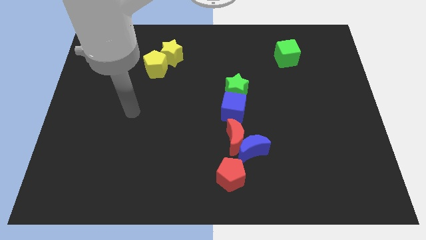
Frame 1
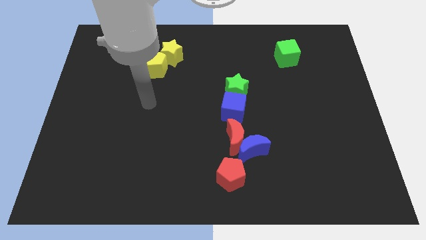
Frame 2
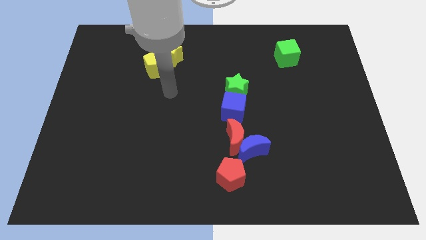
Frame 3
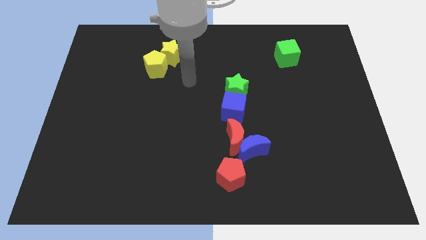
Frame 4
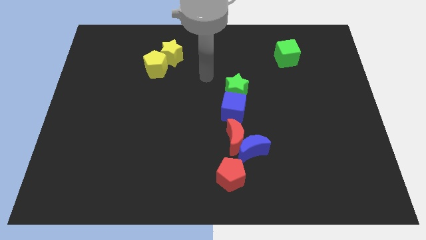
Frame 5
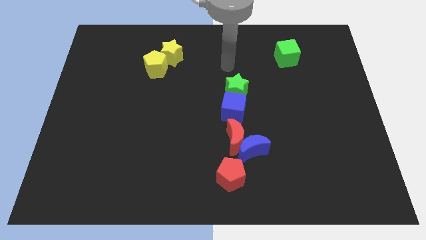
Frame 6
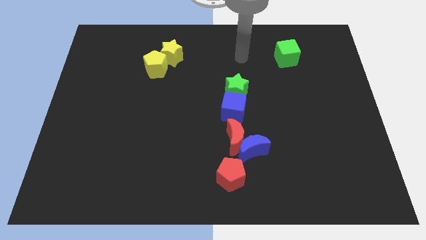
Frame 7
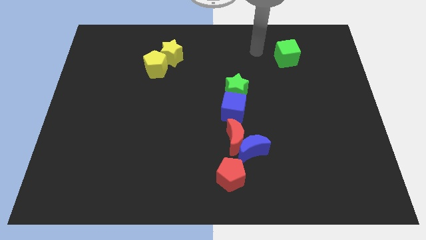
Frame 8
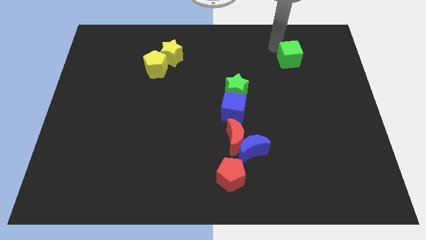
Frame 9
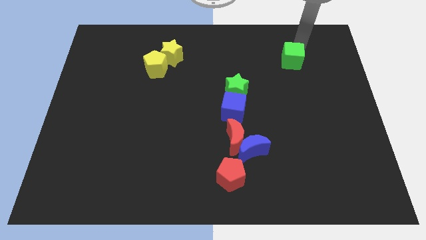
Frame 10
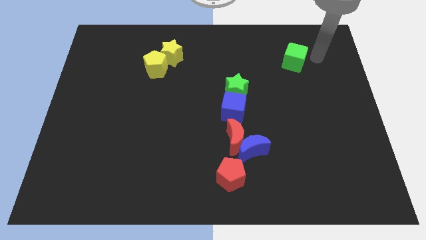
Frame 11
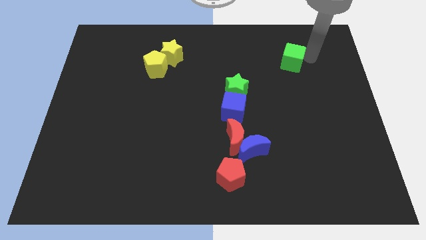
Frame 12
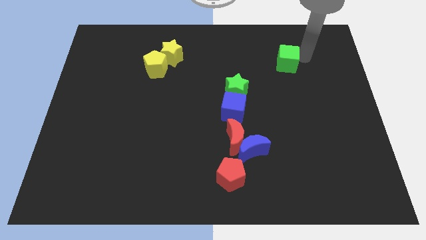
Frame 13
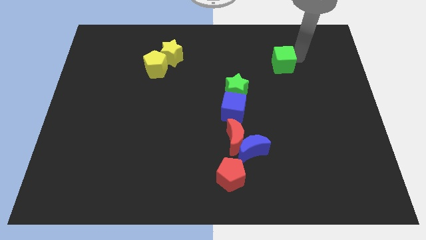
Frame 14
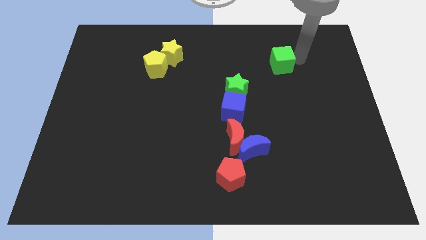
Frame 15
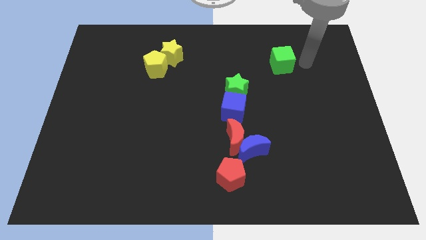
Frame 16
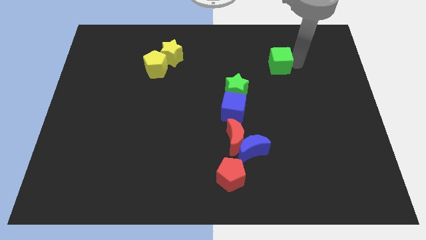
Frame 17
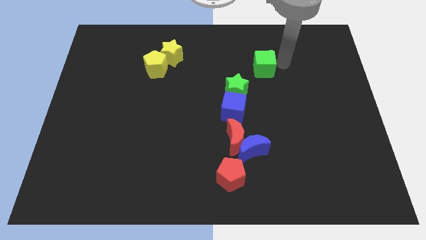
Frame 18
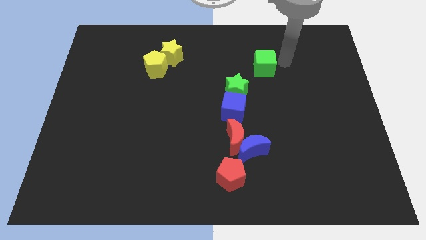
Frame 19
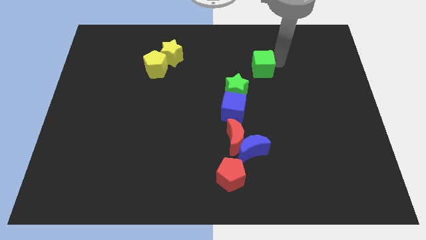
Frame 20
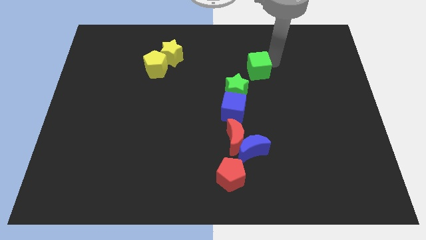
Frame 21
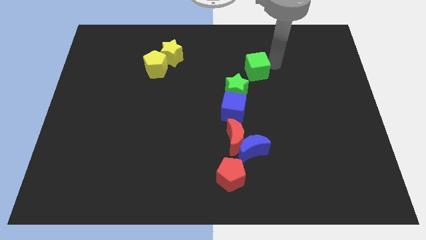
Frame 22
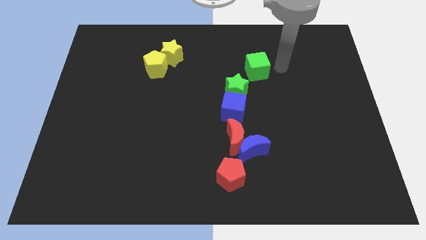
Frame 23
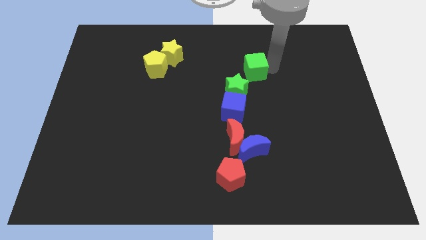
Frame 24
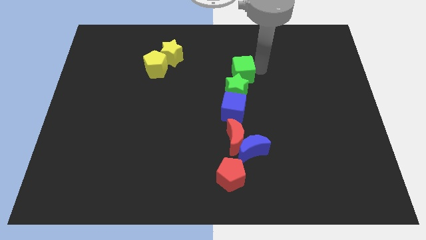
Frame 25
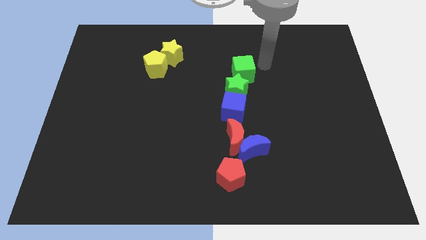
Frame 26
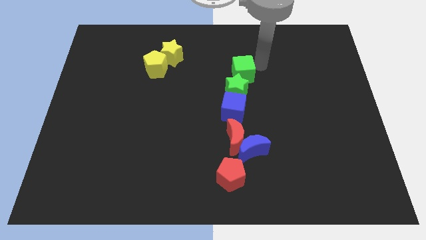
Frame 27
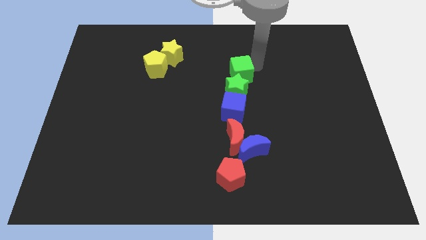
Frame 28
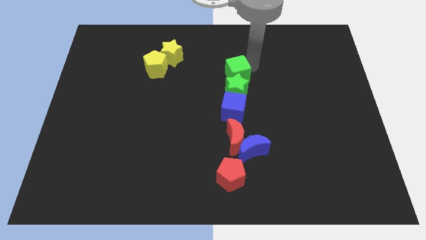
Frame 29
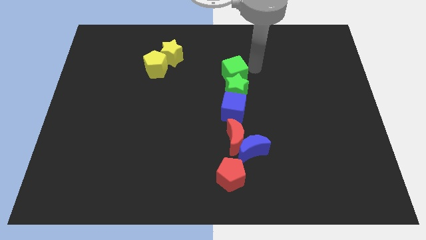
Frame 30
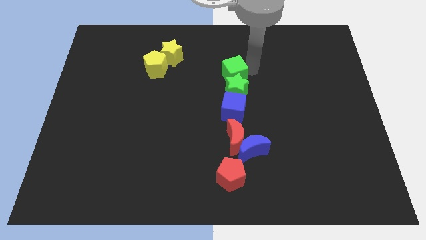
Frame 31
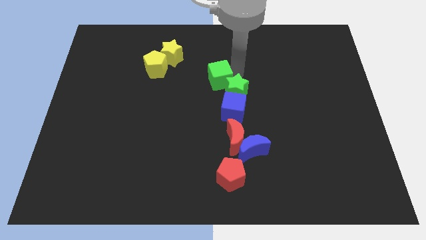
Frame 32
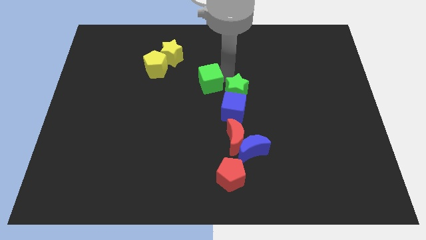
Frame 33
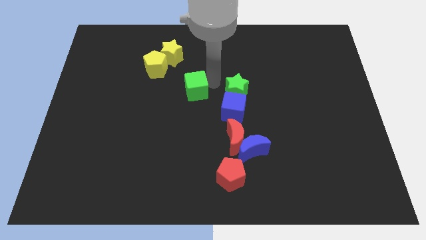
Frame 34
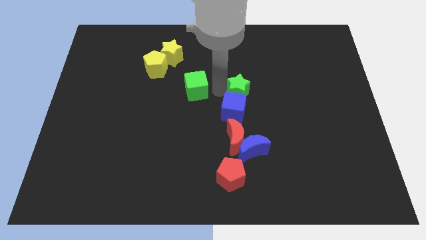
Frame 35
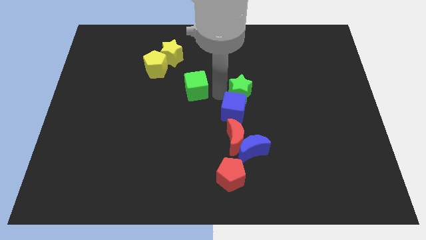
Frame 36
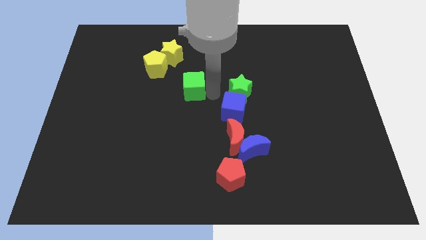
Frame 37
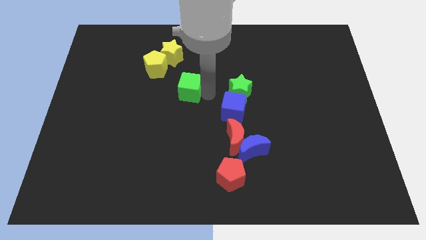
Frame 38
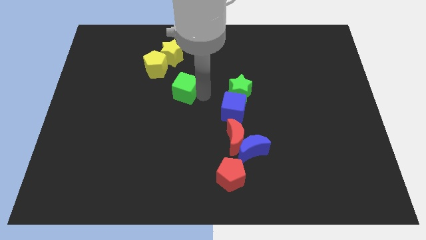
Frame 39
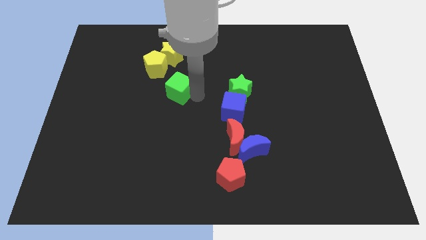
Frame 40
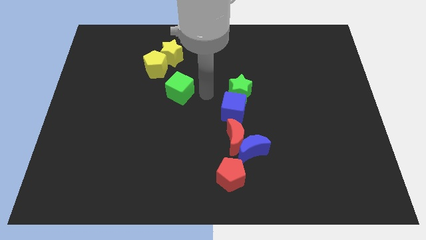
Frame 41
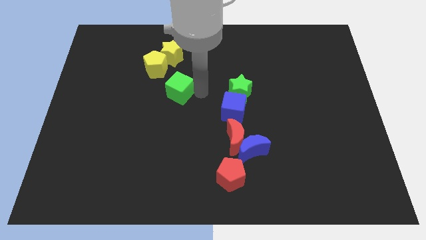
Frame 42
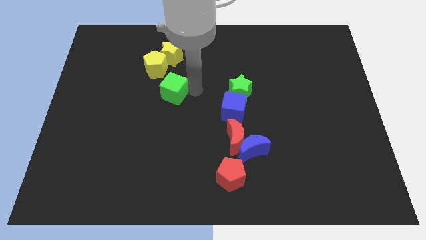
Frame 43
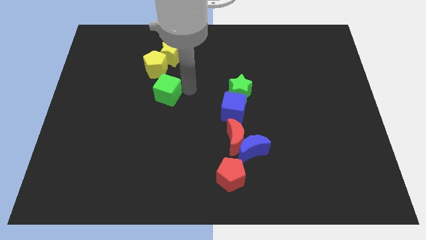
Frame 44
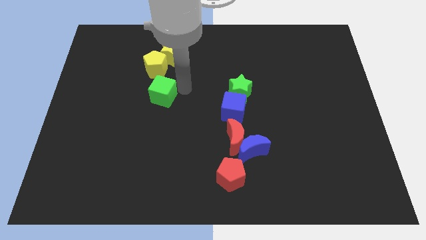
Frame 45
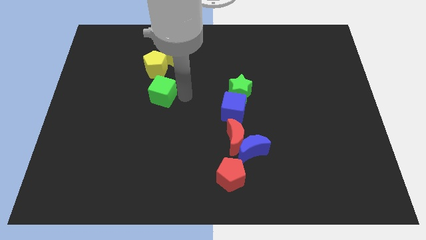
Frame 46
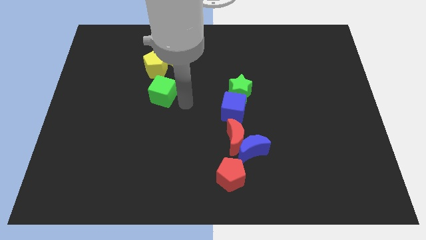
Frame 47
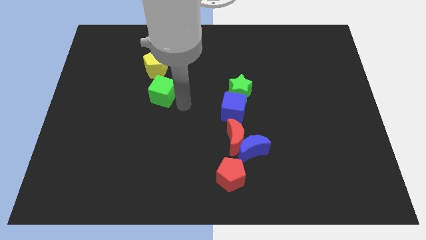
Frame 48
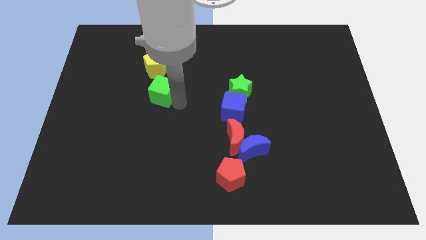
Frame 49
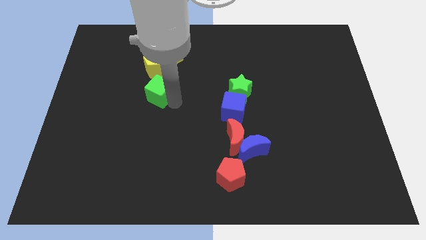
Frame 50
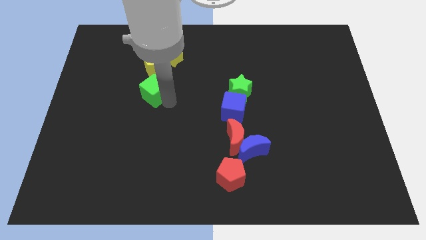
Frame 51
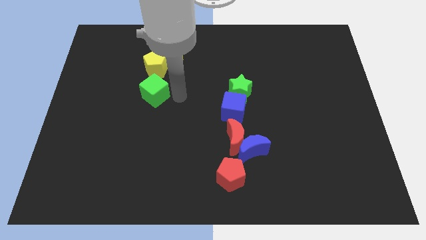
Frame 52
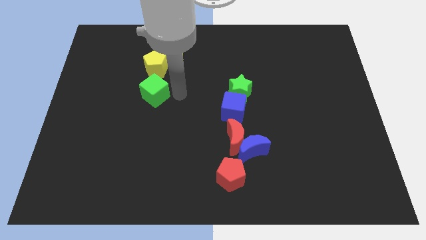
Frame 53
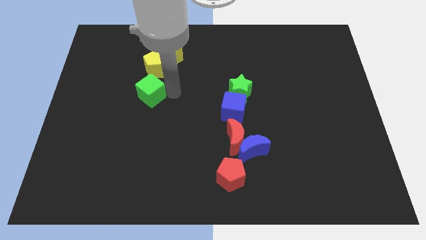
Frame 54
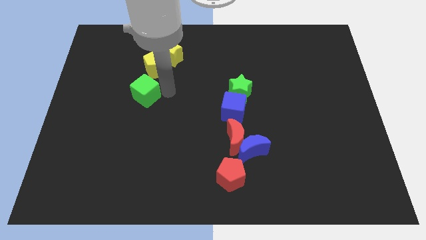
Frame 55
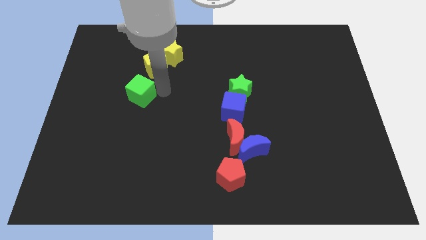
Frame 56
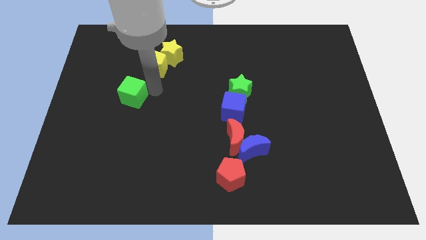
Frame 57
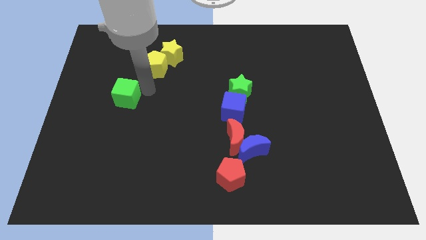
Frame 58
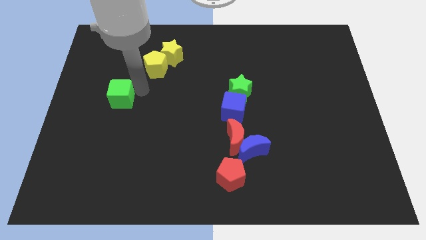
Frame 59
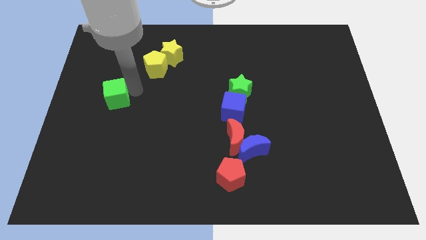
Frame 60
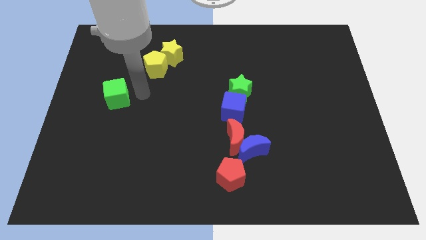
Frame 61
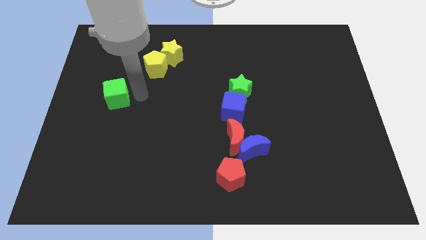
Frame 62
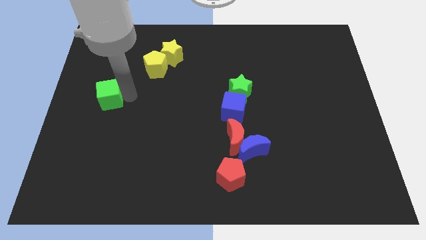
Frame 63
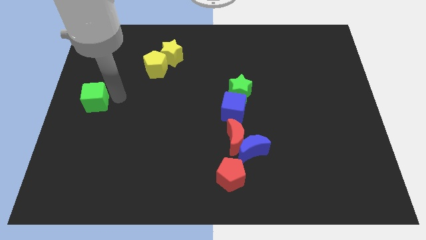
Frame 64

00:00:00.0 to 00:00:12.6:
move the green cube to the left side
